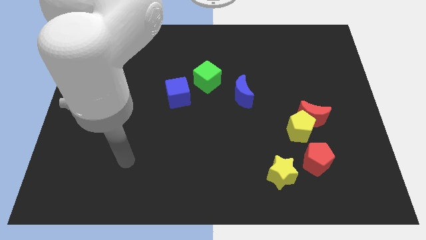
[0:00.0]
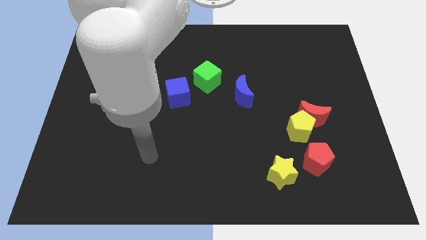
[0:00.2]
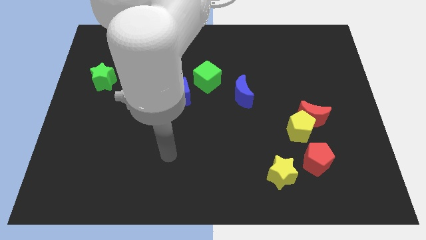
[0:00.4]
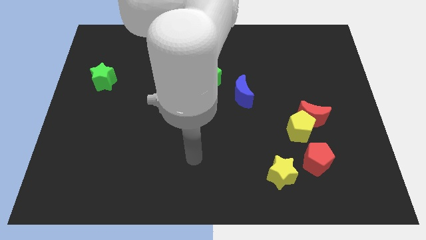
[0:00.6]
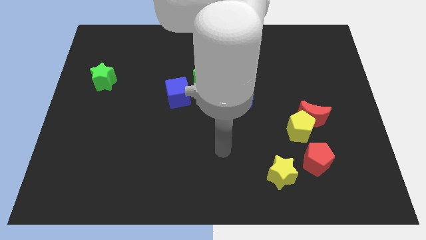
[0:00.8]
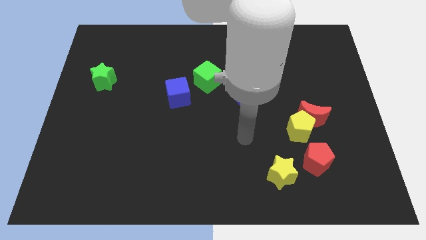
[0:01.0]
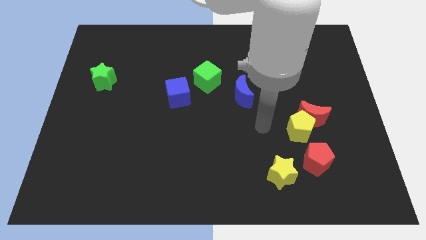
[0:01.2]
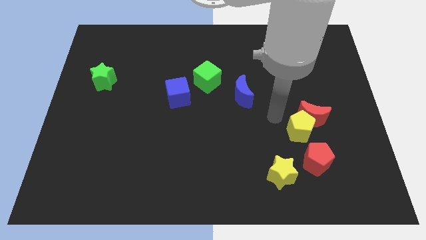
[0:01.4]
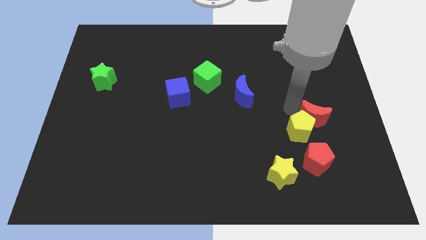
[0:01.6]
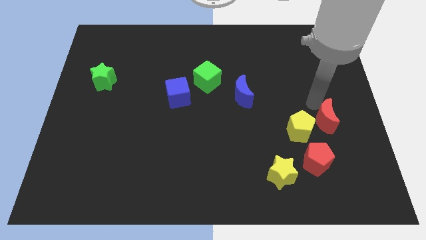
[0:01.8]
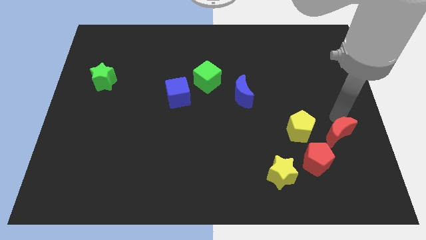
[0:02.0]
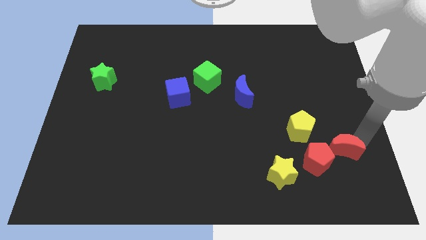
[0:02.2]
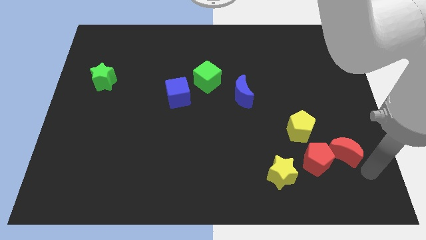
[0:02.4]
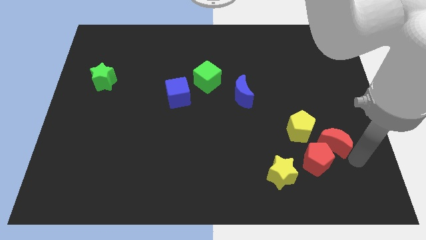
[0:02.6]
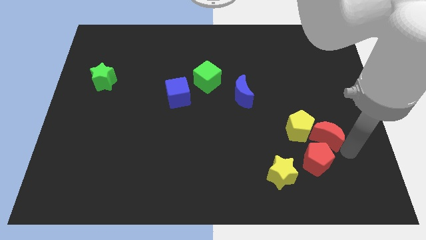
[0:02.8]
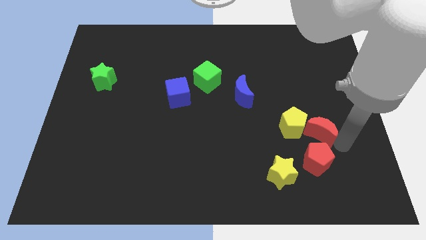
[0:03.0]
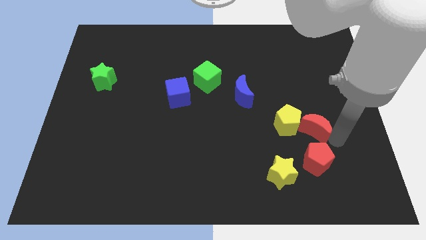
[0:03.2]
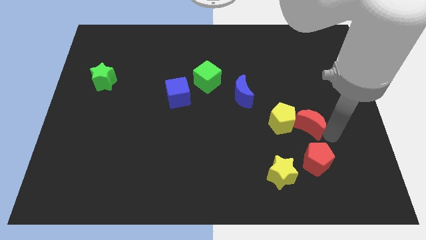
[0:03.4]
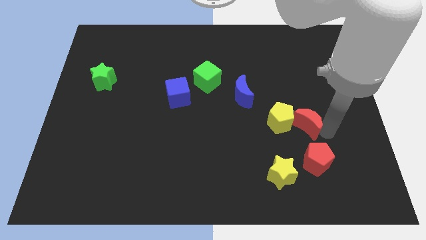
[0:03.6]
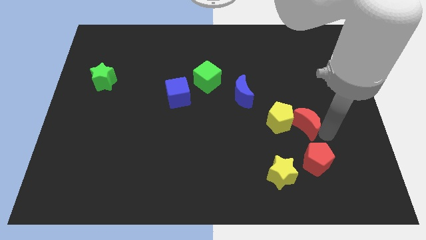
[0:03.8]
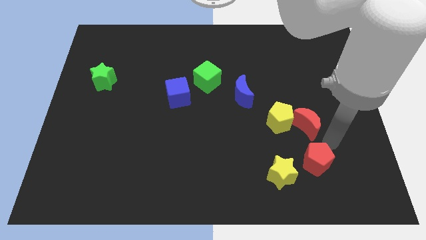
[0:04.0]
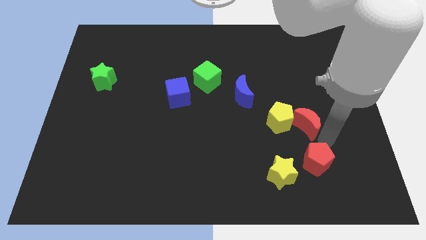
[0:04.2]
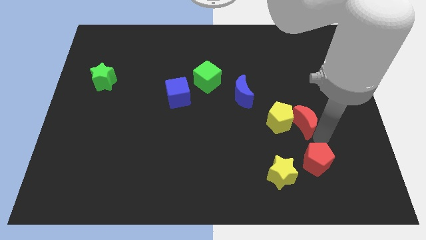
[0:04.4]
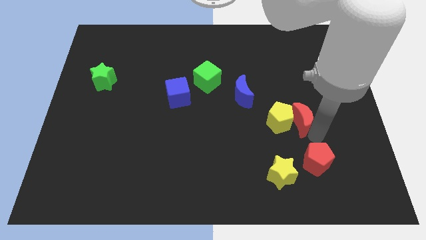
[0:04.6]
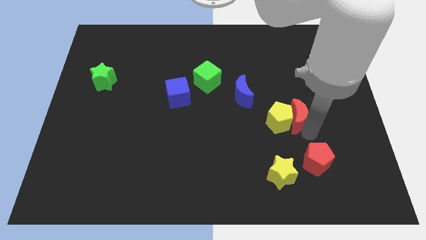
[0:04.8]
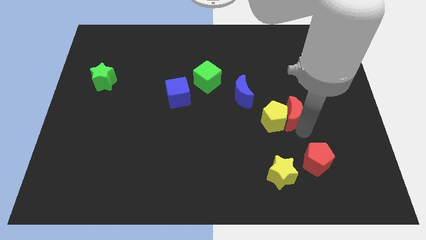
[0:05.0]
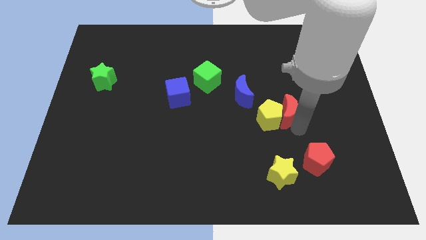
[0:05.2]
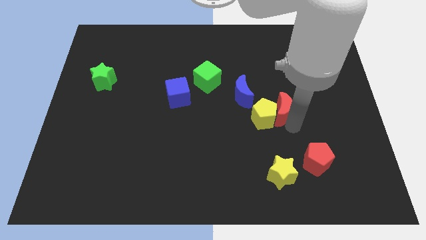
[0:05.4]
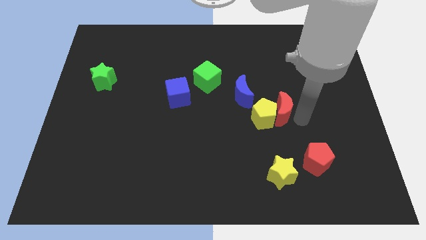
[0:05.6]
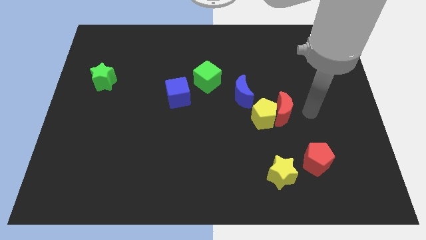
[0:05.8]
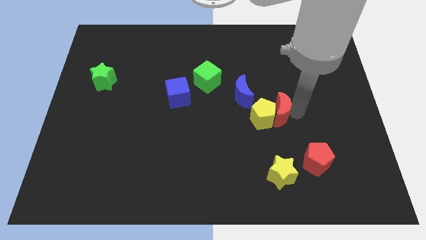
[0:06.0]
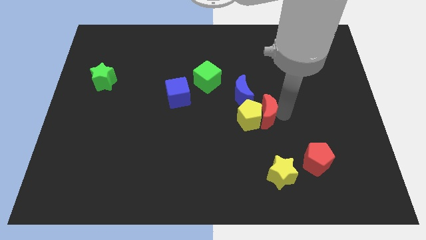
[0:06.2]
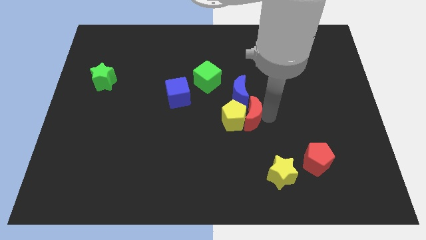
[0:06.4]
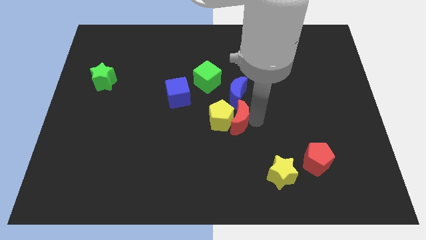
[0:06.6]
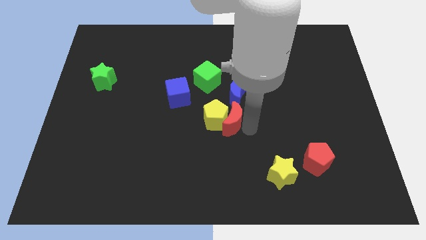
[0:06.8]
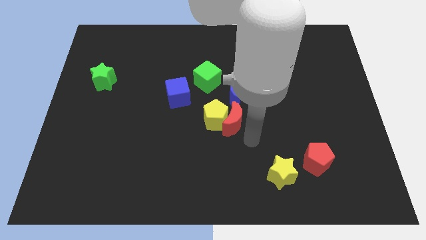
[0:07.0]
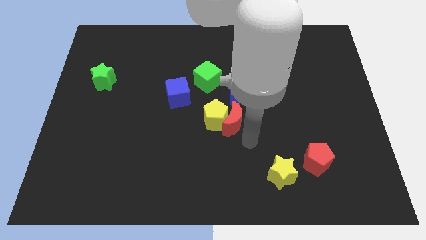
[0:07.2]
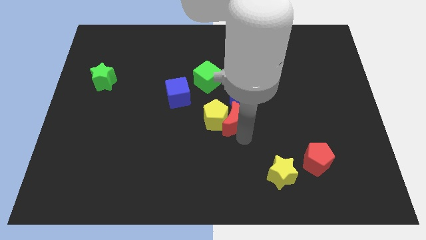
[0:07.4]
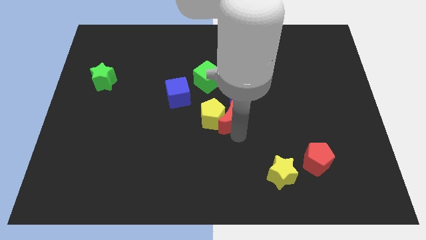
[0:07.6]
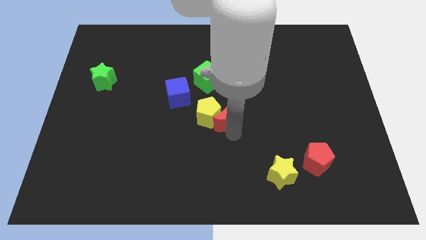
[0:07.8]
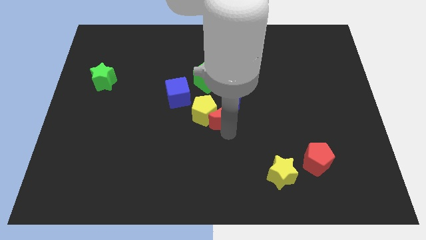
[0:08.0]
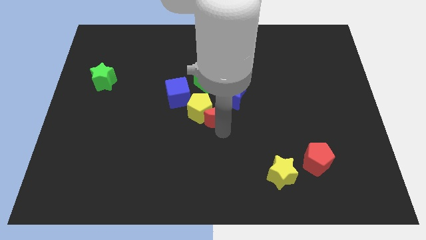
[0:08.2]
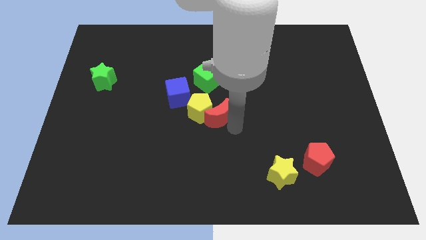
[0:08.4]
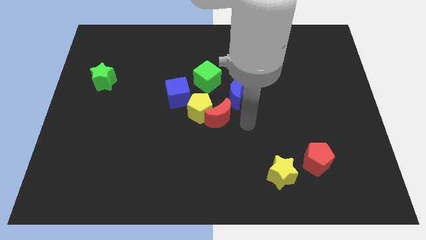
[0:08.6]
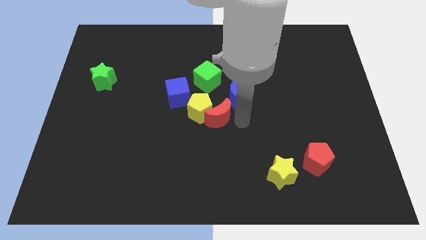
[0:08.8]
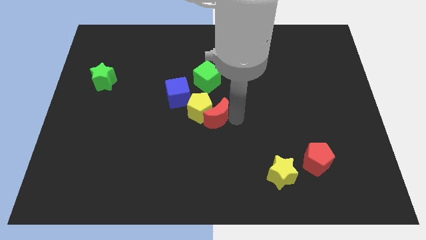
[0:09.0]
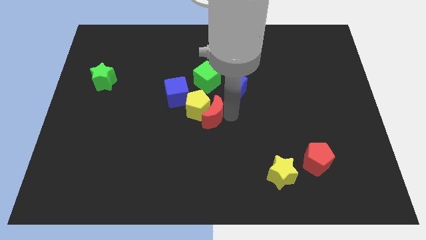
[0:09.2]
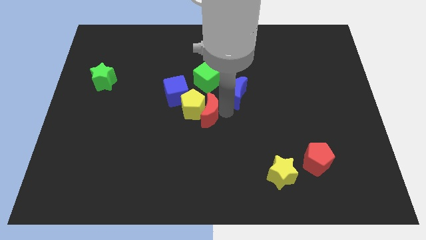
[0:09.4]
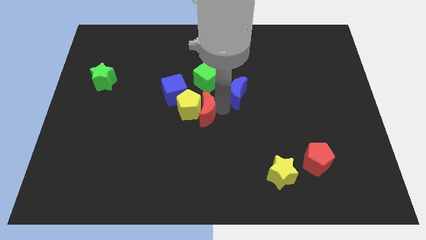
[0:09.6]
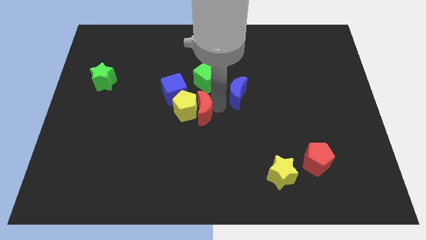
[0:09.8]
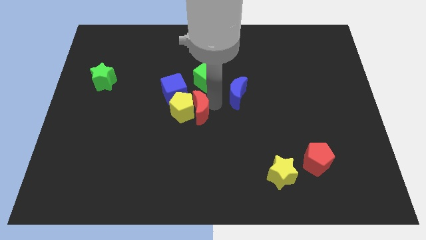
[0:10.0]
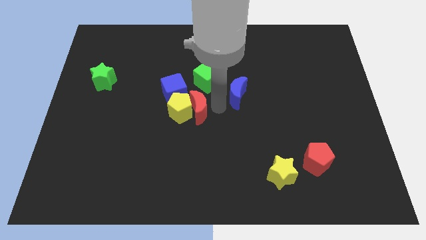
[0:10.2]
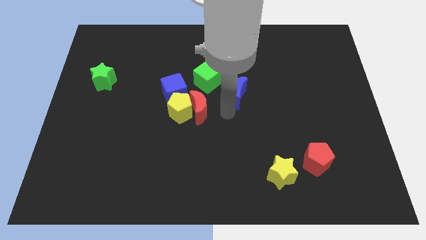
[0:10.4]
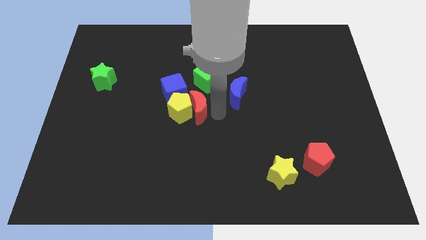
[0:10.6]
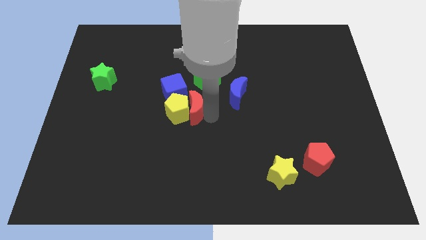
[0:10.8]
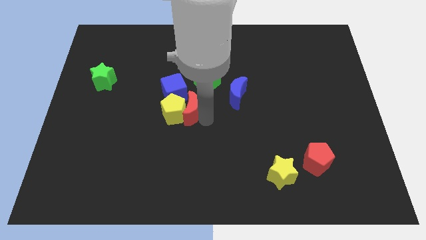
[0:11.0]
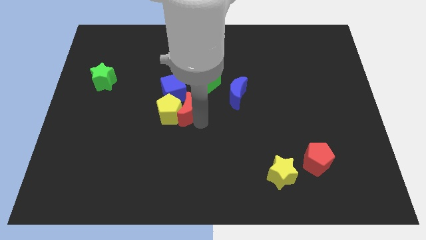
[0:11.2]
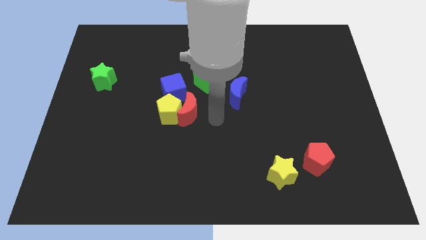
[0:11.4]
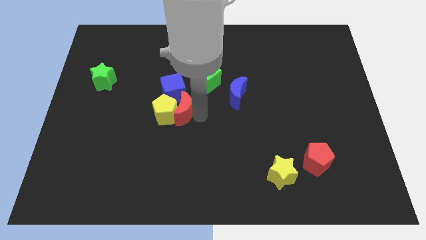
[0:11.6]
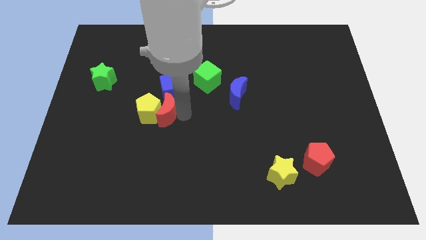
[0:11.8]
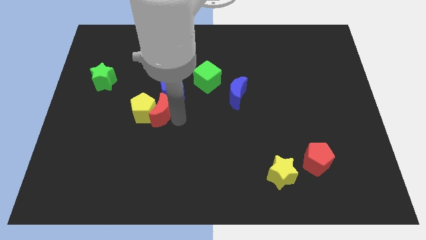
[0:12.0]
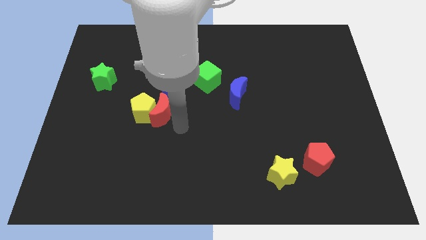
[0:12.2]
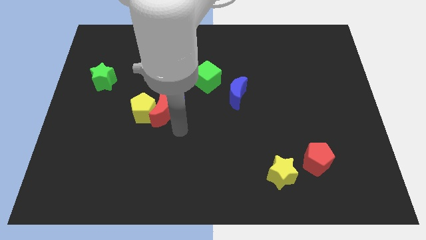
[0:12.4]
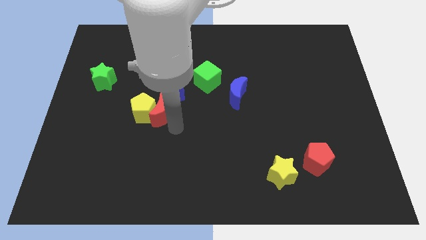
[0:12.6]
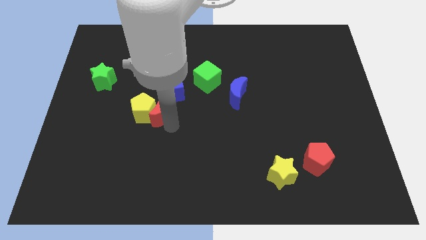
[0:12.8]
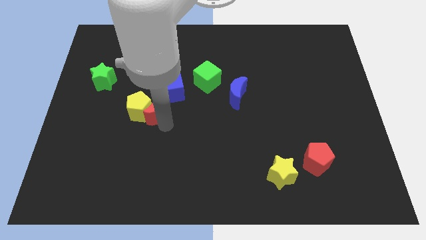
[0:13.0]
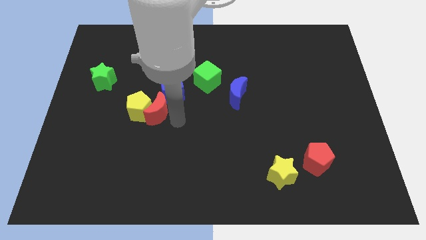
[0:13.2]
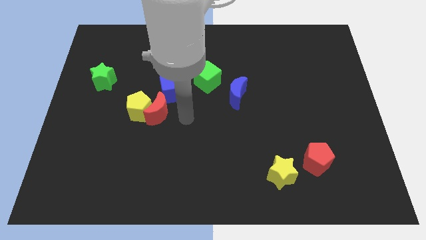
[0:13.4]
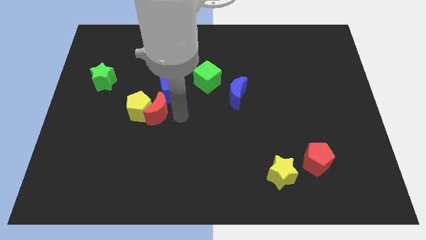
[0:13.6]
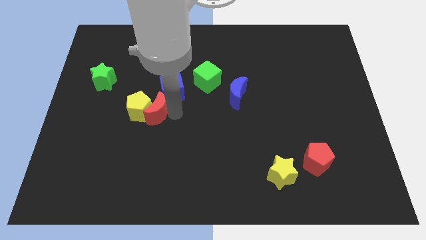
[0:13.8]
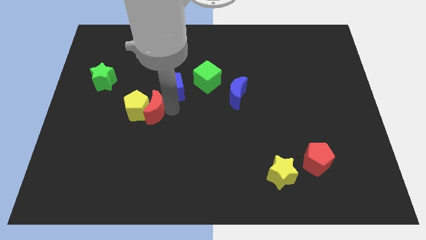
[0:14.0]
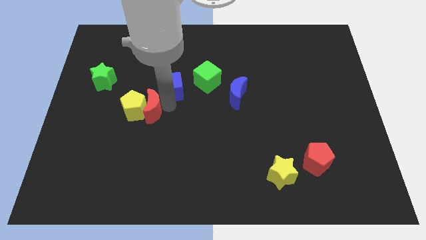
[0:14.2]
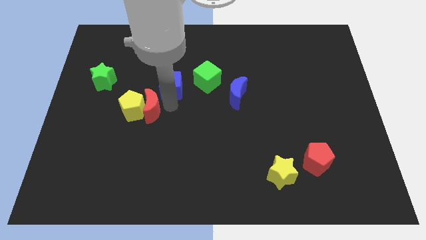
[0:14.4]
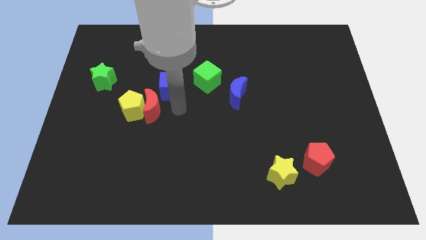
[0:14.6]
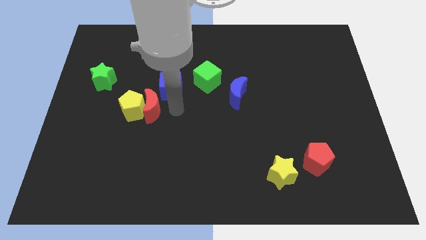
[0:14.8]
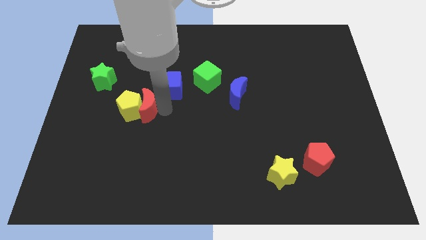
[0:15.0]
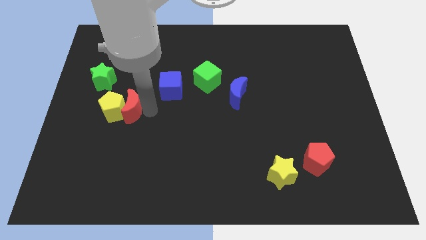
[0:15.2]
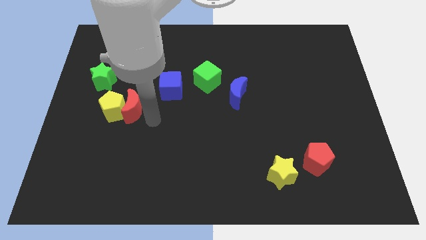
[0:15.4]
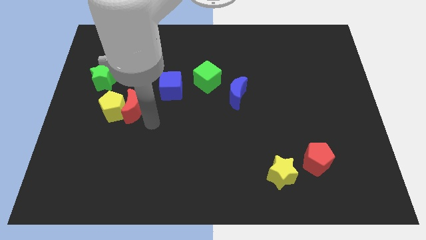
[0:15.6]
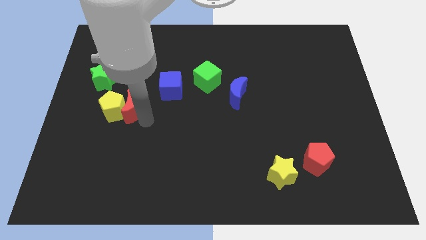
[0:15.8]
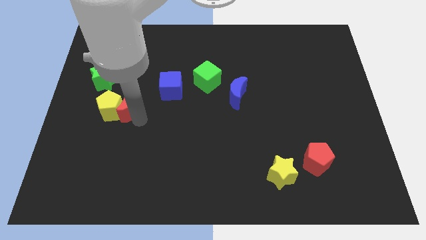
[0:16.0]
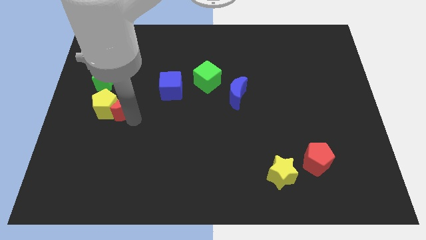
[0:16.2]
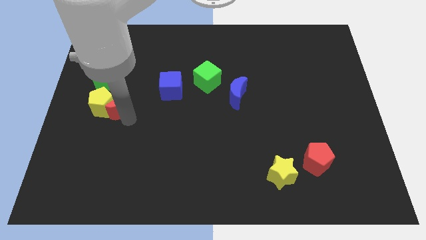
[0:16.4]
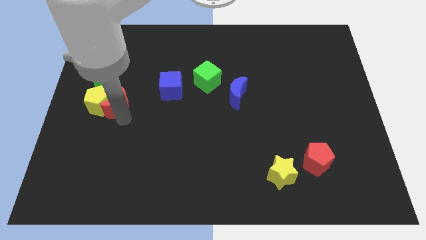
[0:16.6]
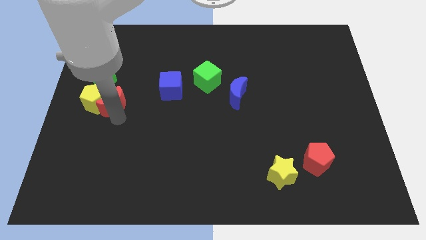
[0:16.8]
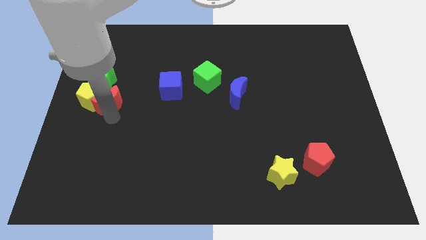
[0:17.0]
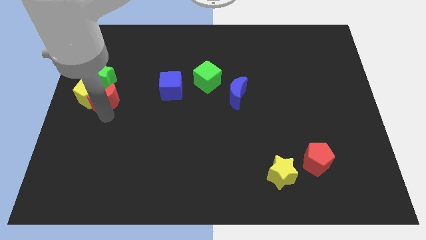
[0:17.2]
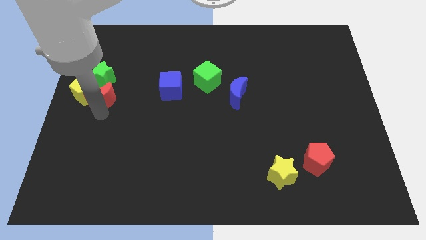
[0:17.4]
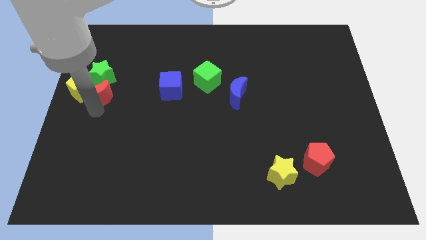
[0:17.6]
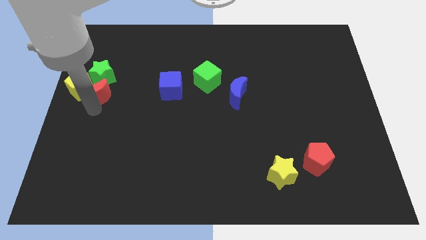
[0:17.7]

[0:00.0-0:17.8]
put the red moon close to the green star
